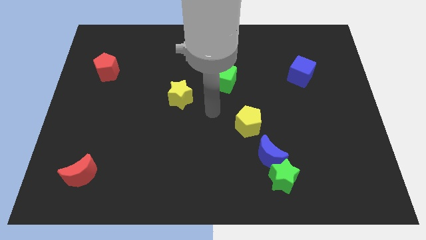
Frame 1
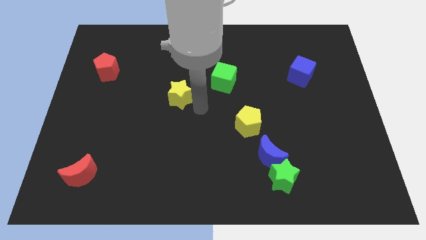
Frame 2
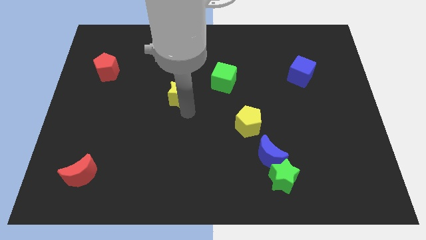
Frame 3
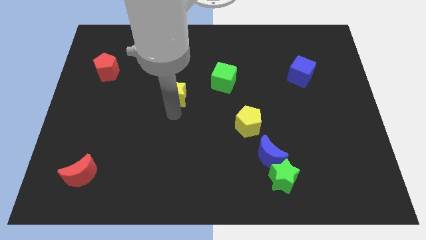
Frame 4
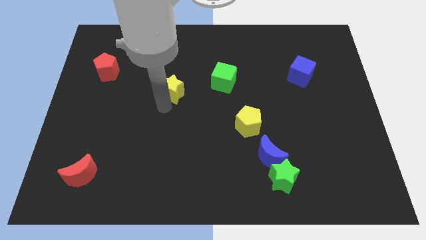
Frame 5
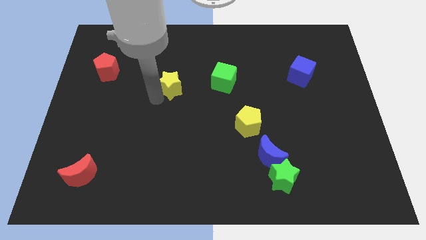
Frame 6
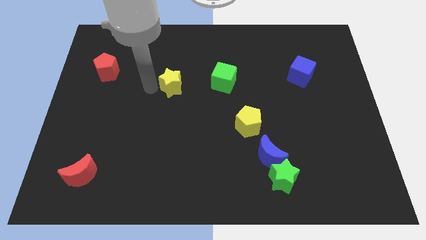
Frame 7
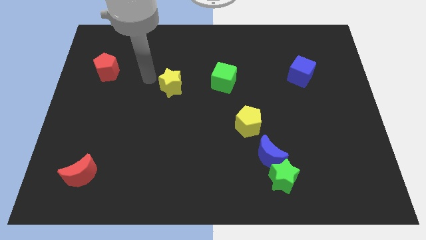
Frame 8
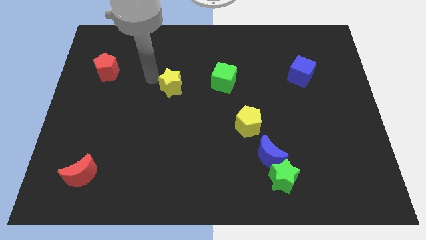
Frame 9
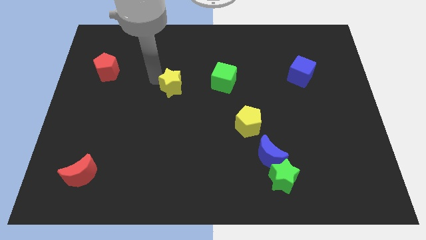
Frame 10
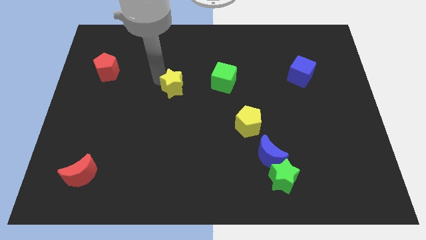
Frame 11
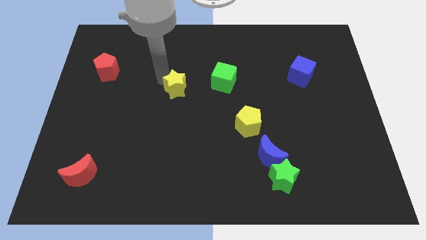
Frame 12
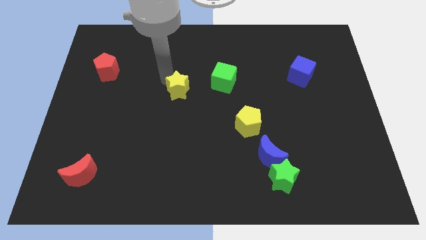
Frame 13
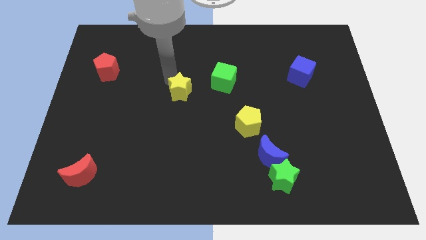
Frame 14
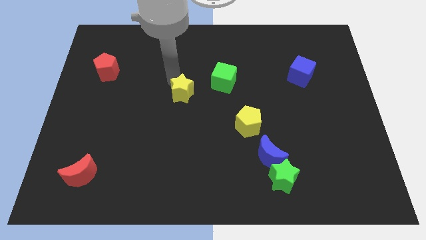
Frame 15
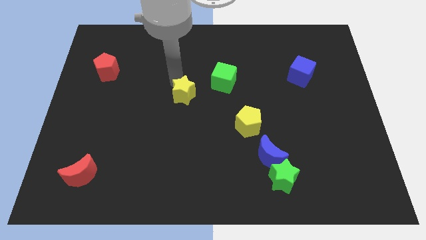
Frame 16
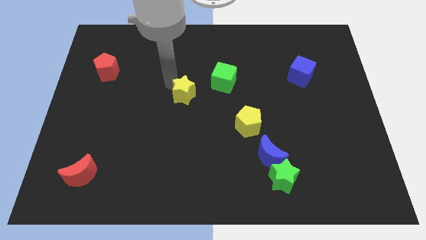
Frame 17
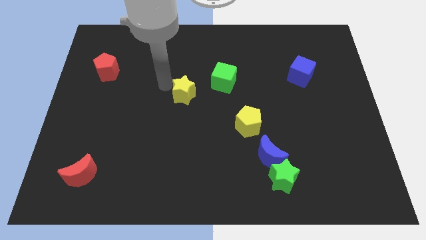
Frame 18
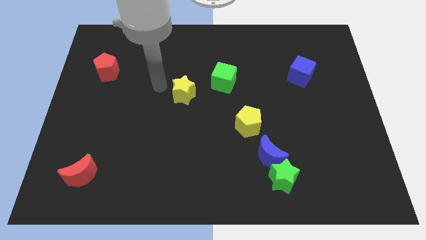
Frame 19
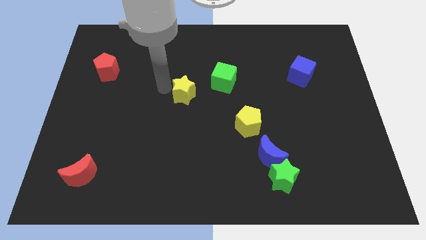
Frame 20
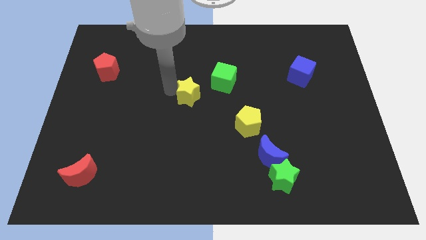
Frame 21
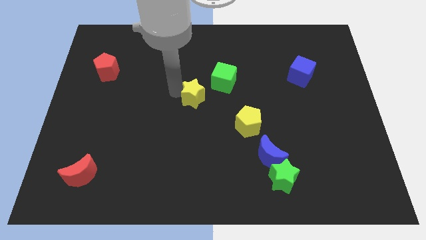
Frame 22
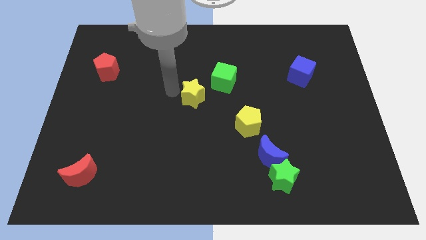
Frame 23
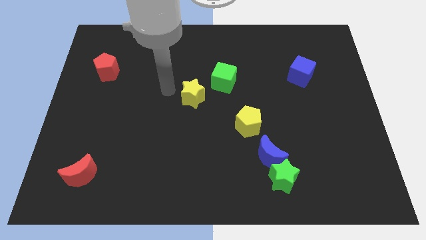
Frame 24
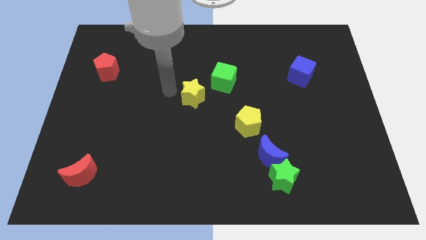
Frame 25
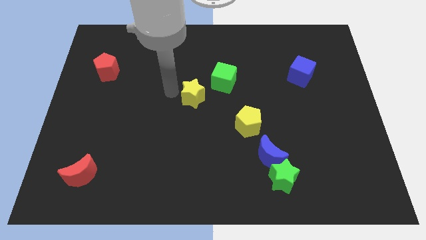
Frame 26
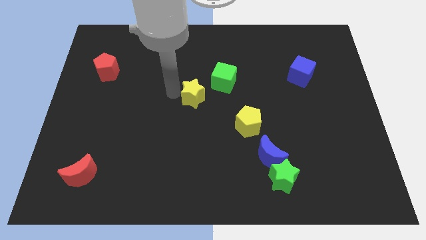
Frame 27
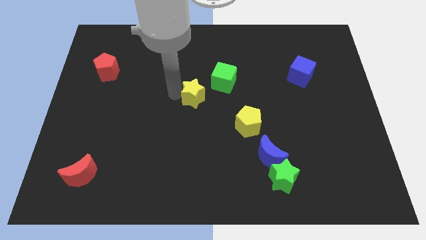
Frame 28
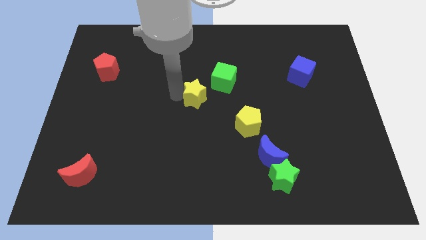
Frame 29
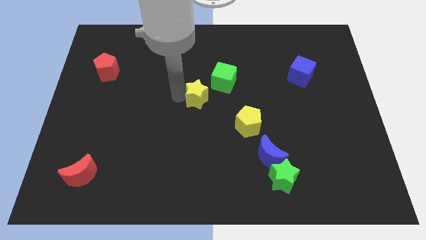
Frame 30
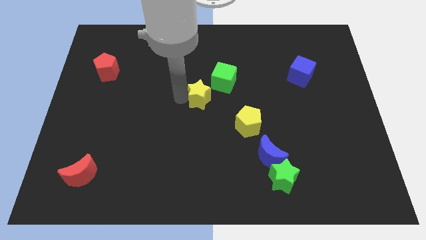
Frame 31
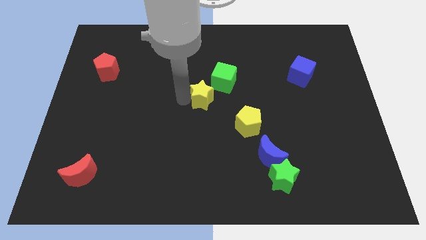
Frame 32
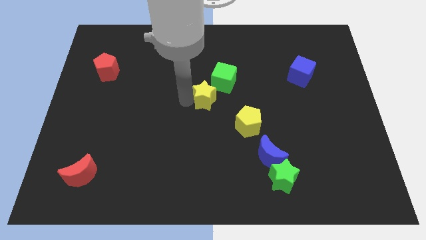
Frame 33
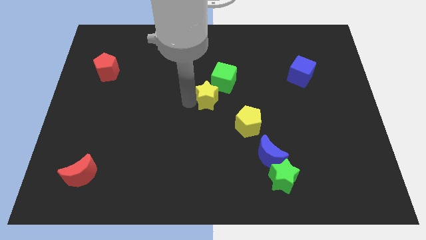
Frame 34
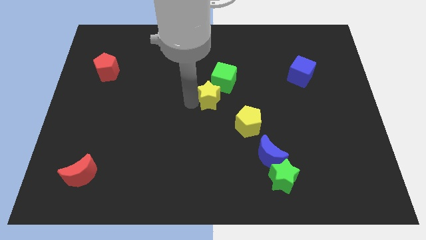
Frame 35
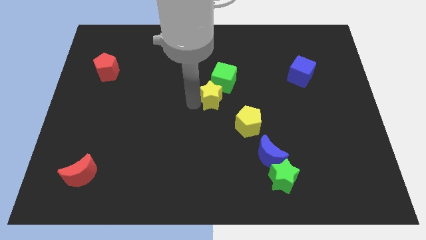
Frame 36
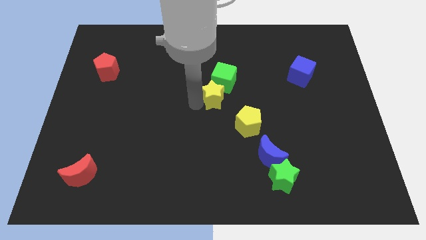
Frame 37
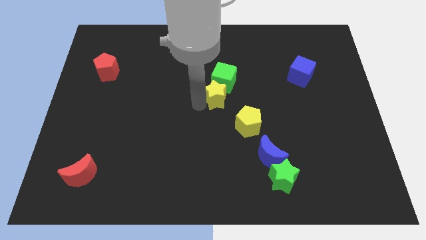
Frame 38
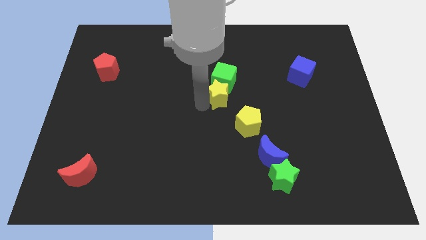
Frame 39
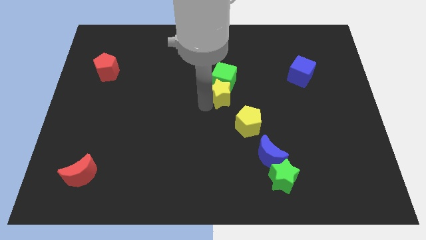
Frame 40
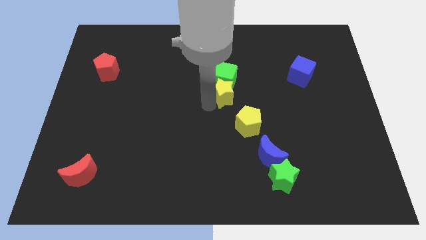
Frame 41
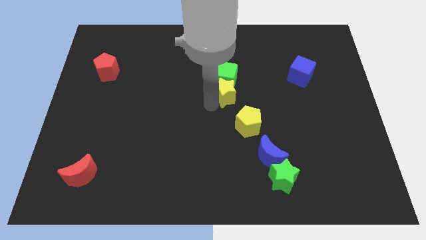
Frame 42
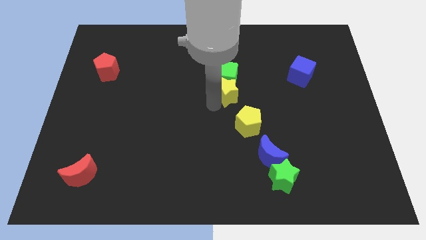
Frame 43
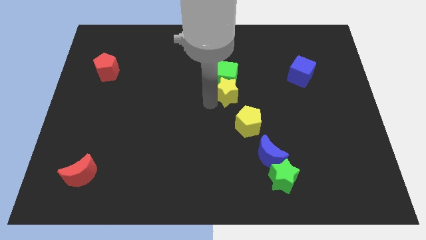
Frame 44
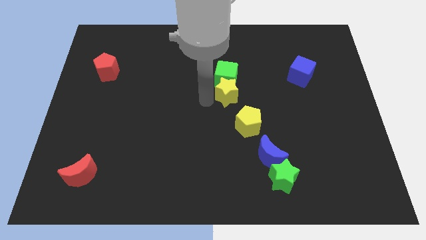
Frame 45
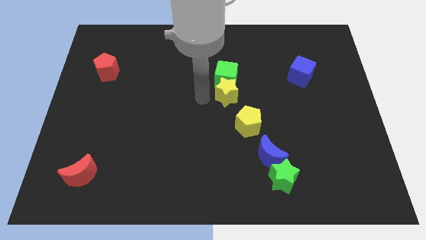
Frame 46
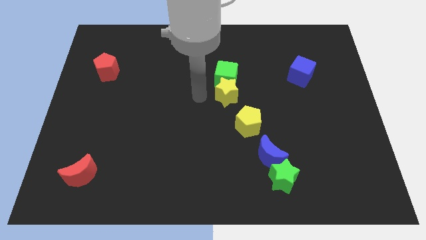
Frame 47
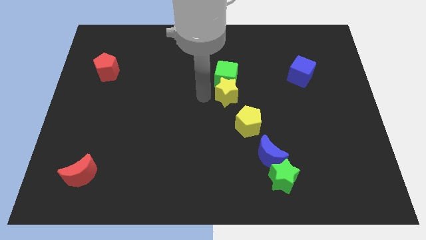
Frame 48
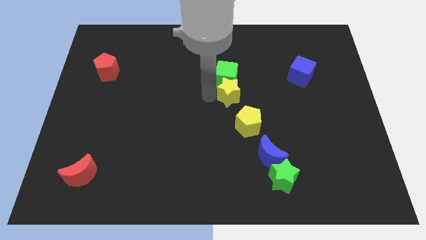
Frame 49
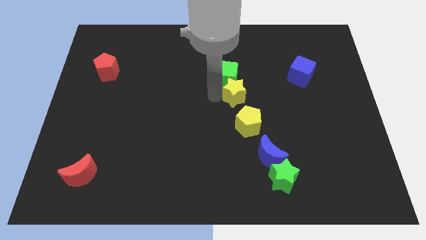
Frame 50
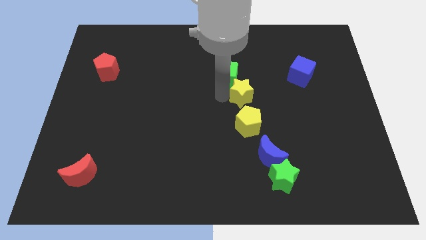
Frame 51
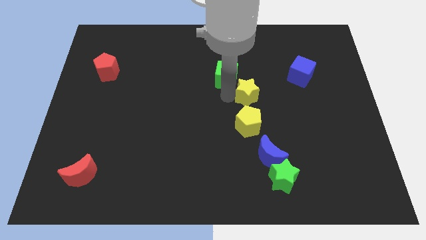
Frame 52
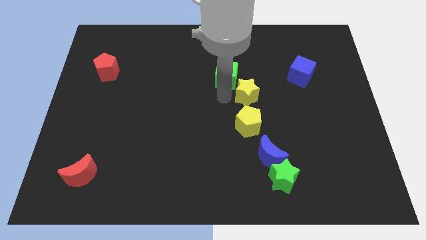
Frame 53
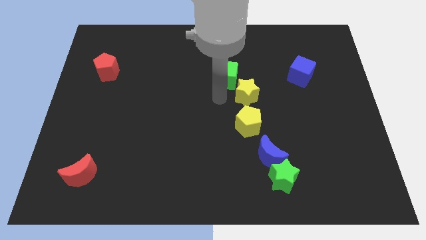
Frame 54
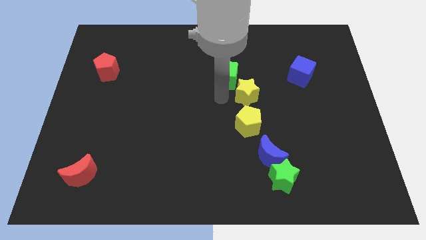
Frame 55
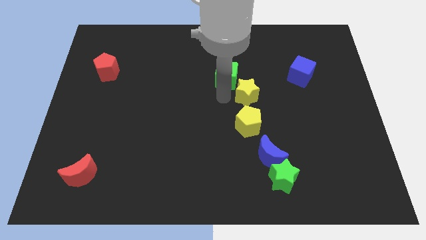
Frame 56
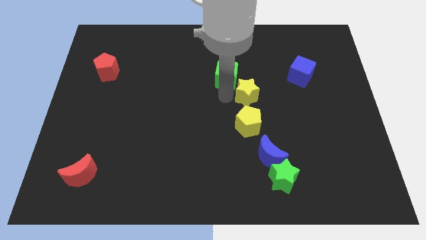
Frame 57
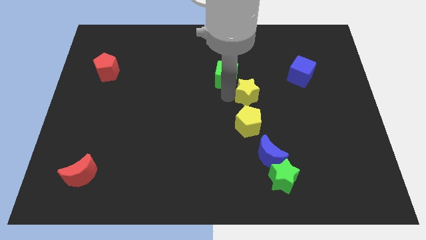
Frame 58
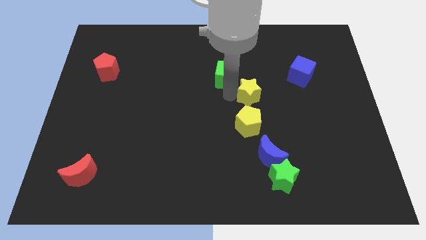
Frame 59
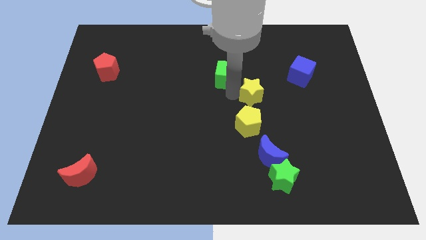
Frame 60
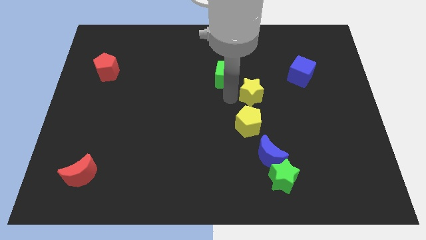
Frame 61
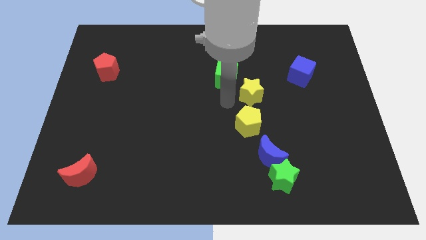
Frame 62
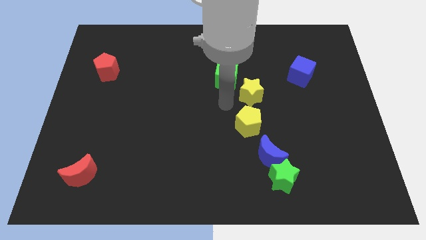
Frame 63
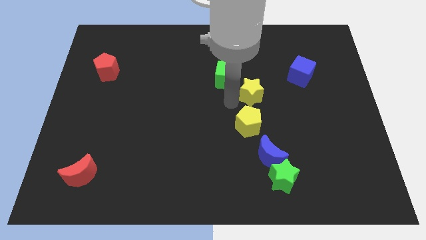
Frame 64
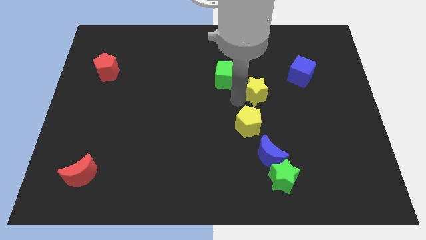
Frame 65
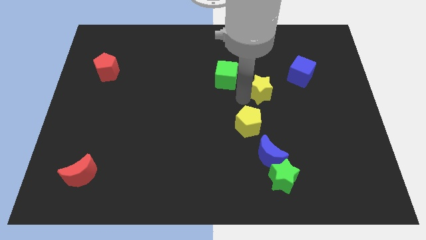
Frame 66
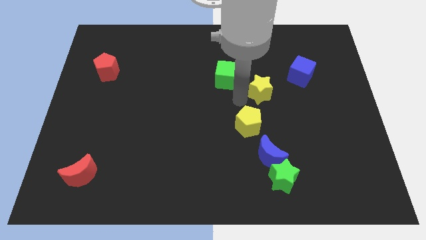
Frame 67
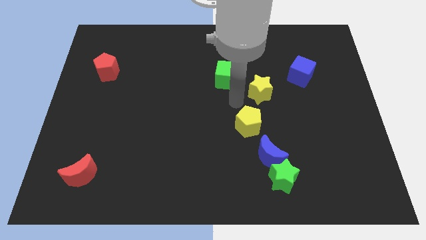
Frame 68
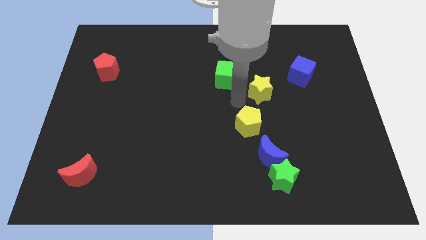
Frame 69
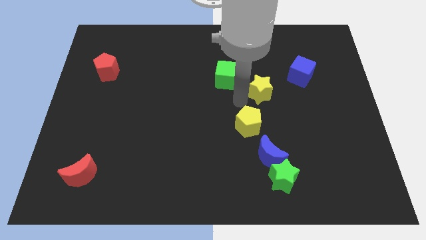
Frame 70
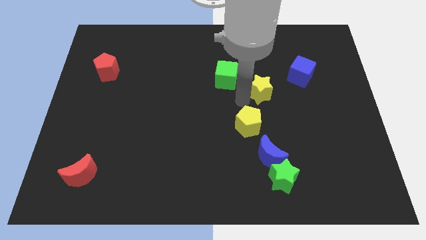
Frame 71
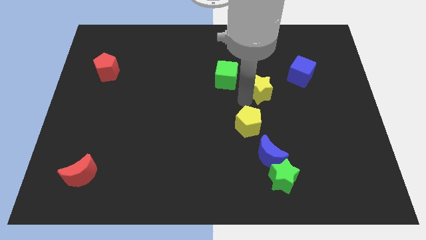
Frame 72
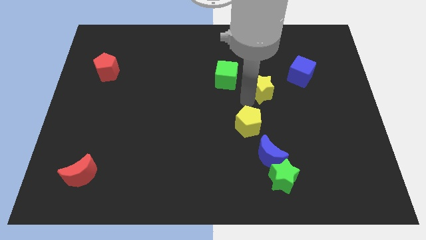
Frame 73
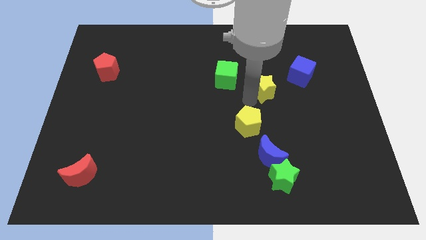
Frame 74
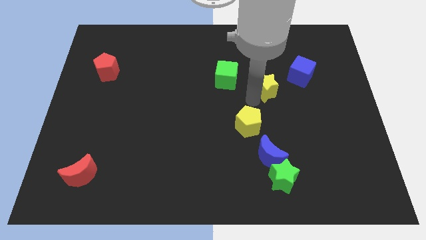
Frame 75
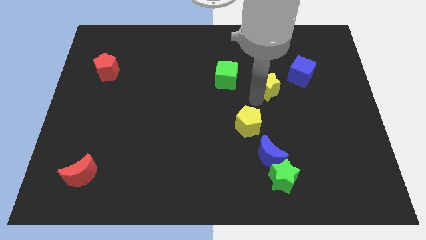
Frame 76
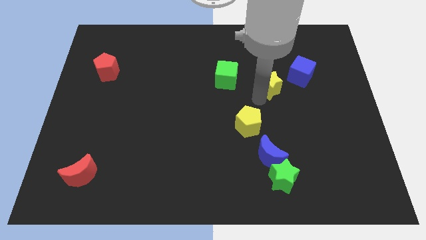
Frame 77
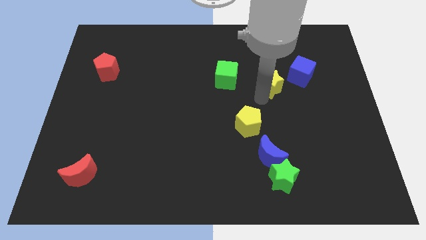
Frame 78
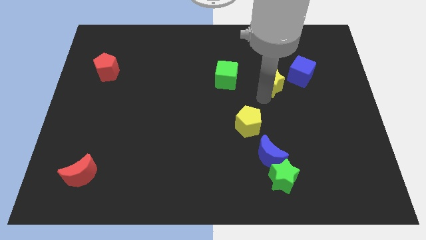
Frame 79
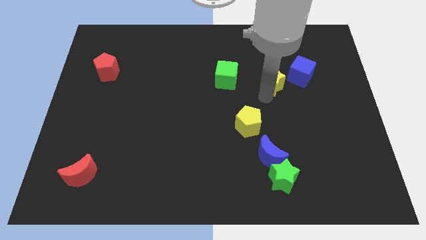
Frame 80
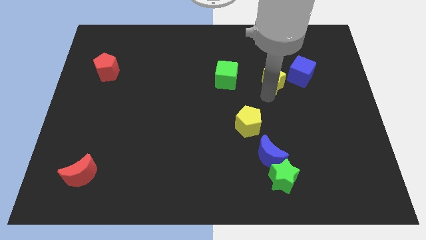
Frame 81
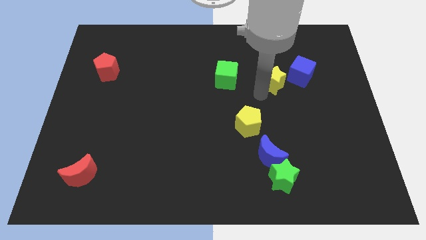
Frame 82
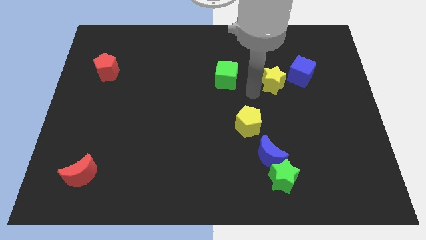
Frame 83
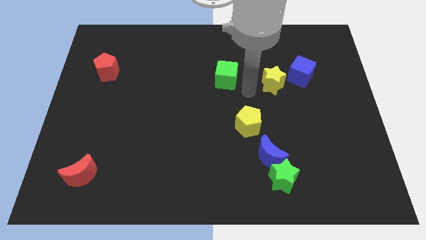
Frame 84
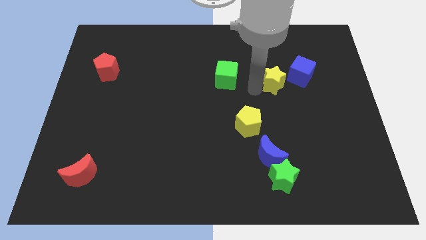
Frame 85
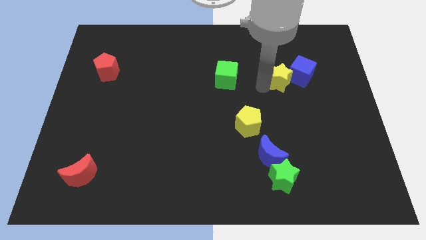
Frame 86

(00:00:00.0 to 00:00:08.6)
move the yellow star next to the blue cube
